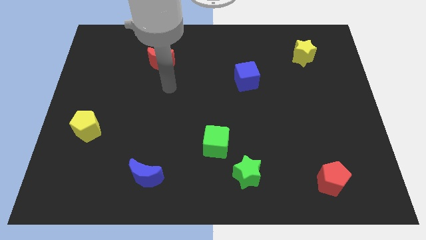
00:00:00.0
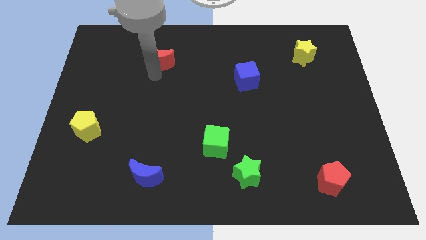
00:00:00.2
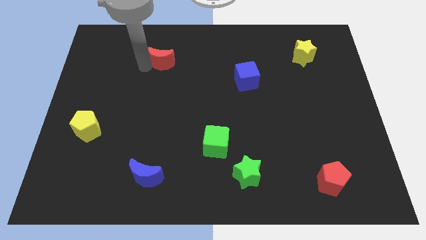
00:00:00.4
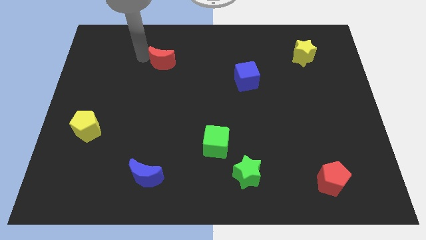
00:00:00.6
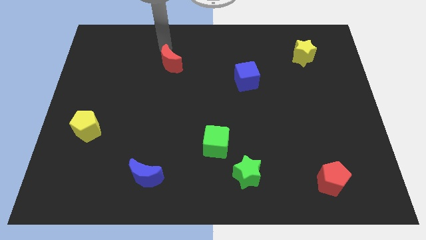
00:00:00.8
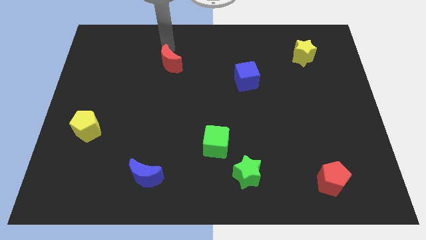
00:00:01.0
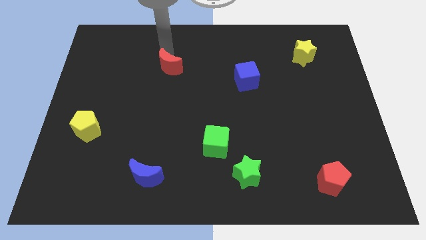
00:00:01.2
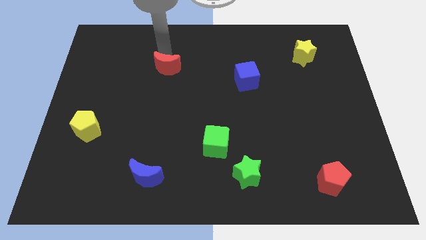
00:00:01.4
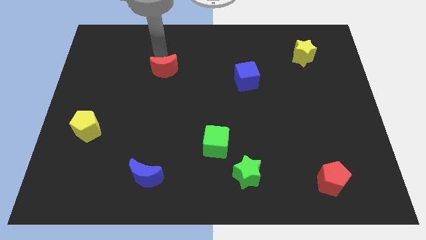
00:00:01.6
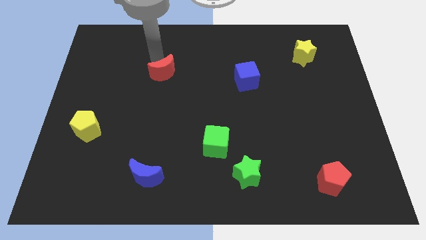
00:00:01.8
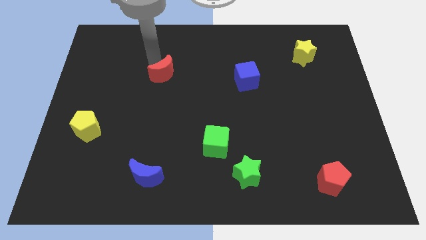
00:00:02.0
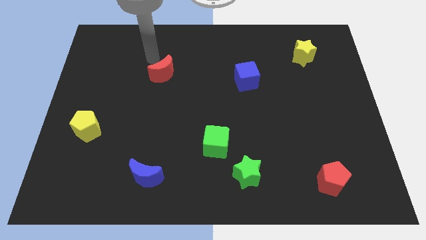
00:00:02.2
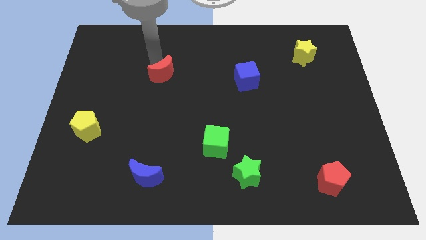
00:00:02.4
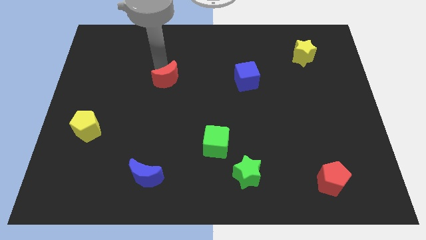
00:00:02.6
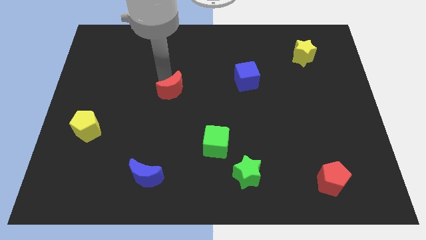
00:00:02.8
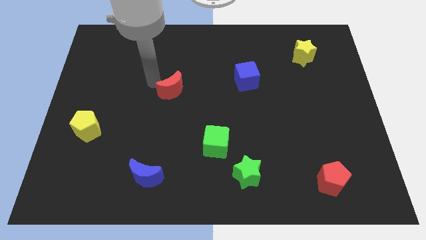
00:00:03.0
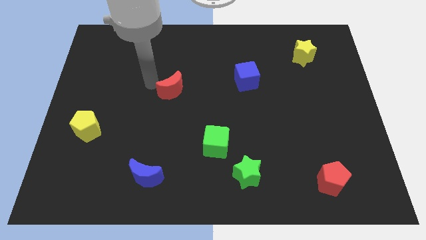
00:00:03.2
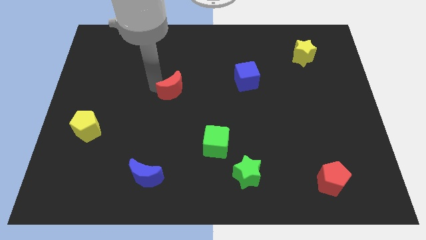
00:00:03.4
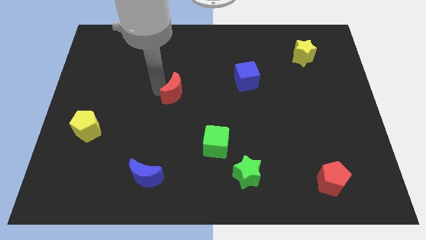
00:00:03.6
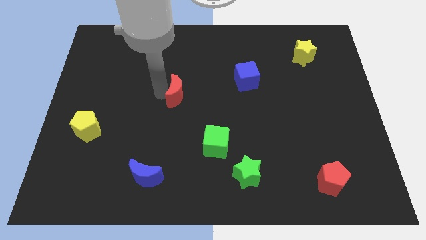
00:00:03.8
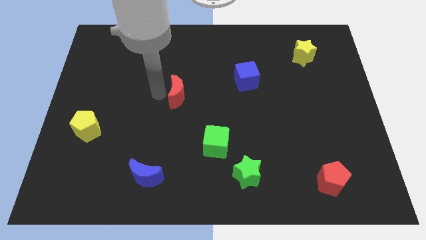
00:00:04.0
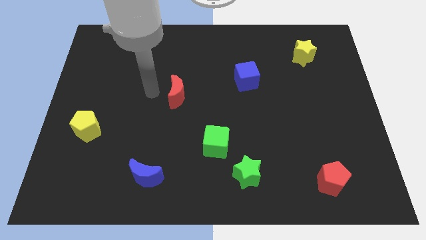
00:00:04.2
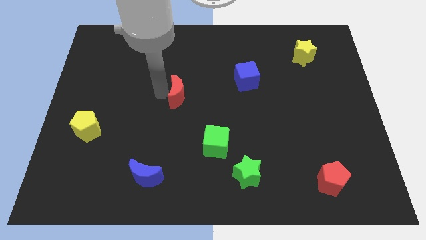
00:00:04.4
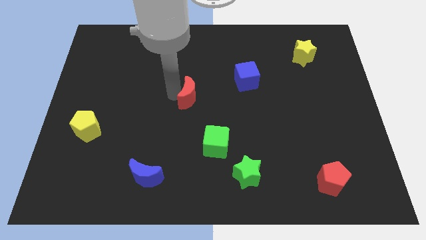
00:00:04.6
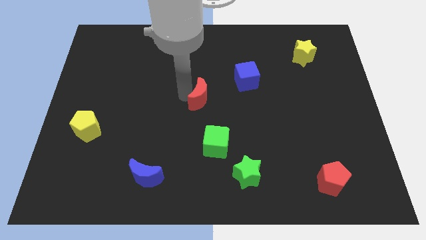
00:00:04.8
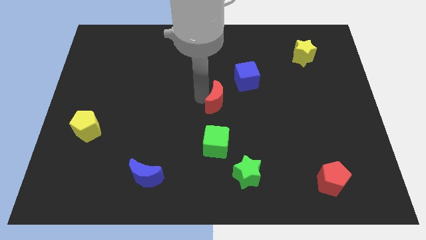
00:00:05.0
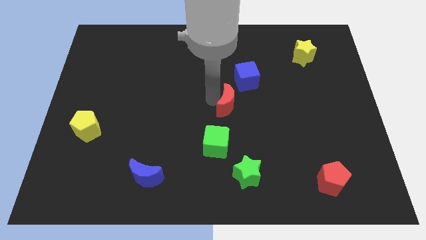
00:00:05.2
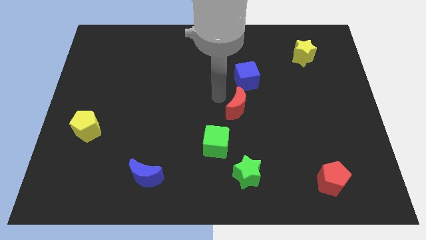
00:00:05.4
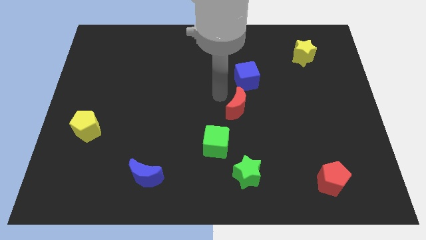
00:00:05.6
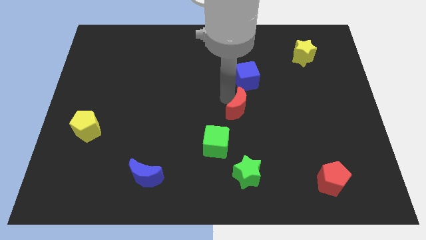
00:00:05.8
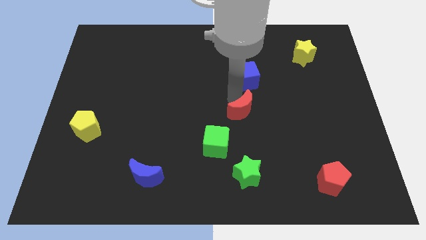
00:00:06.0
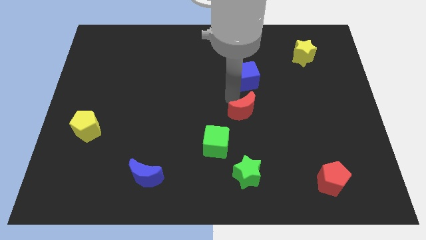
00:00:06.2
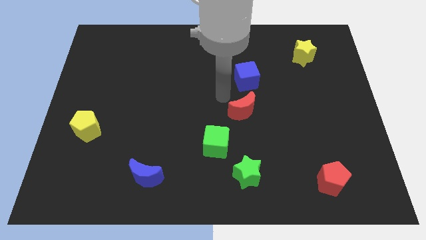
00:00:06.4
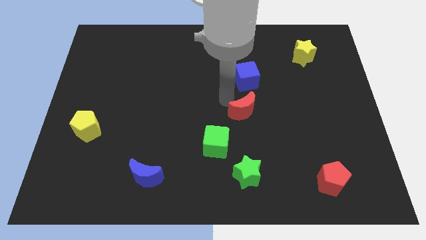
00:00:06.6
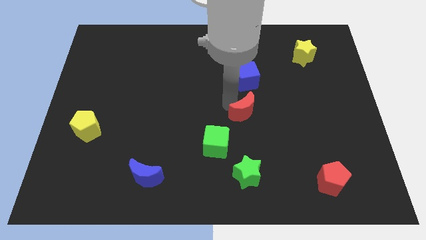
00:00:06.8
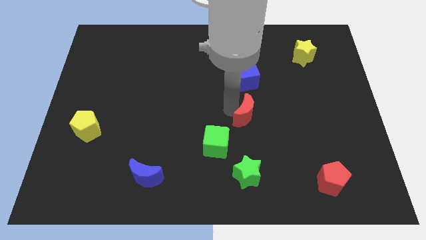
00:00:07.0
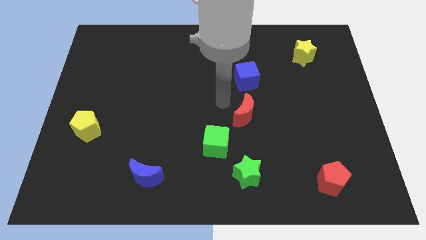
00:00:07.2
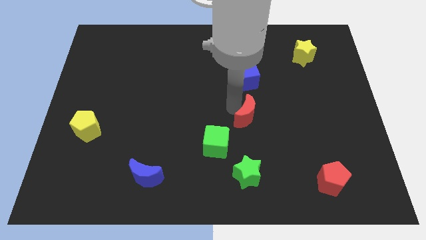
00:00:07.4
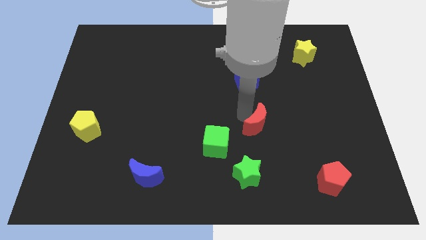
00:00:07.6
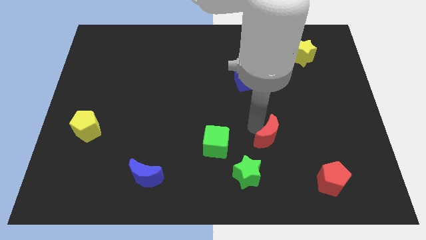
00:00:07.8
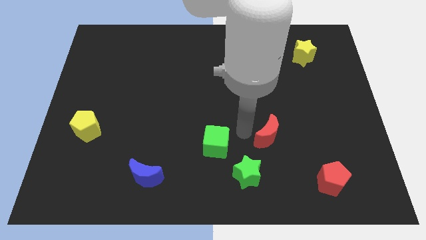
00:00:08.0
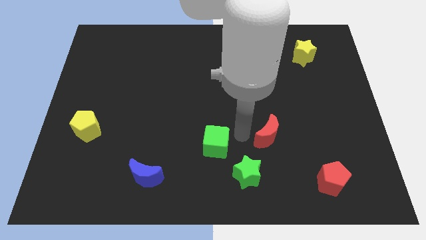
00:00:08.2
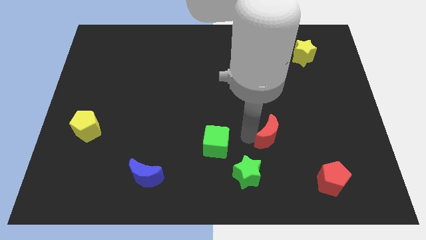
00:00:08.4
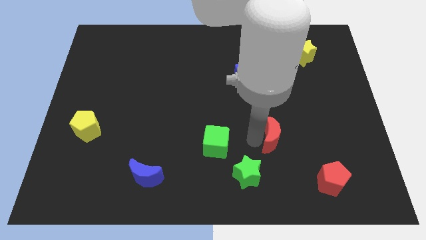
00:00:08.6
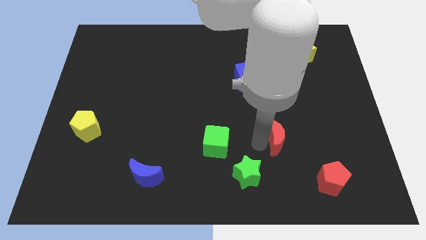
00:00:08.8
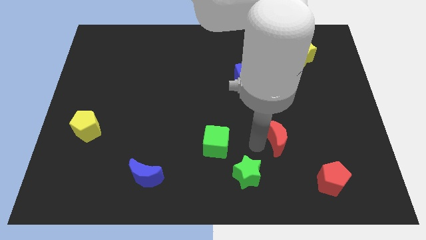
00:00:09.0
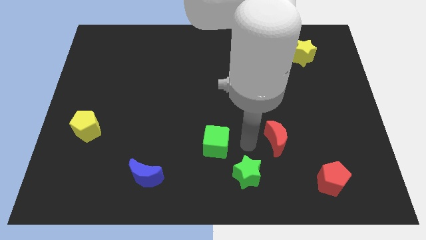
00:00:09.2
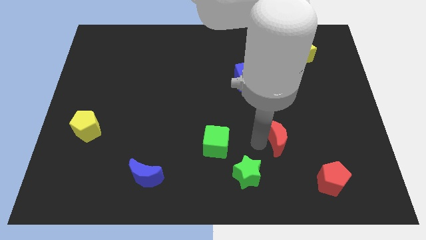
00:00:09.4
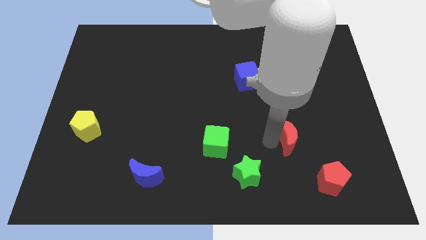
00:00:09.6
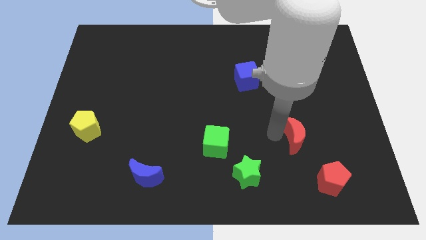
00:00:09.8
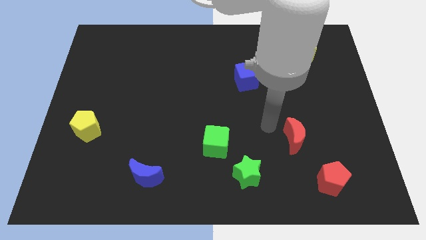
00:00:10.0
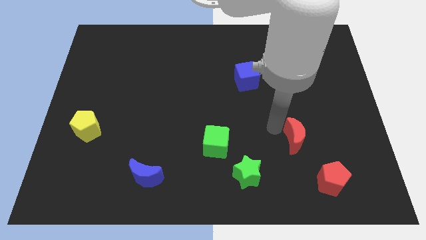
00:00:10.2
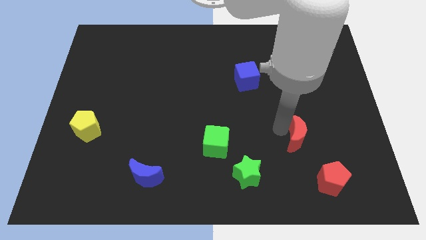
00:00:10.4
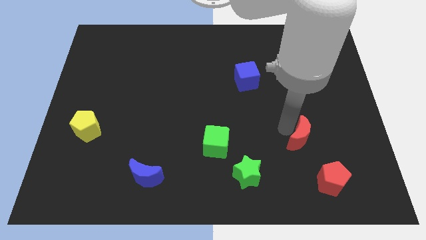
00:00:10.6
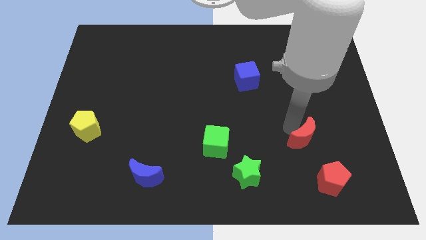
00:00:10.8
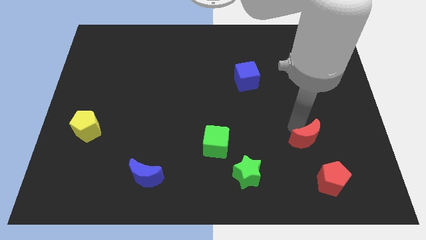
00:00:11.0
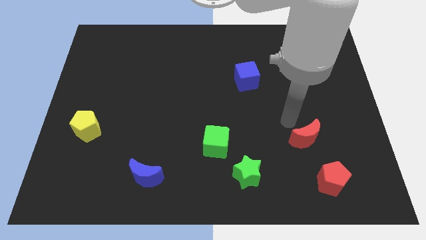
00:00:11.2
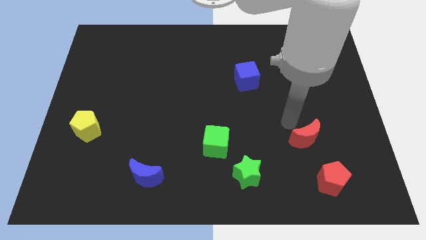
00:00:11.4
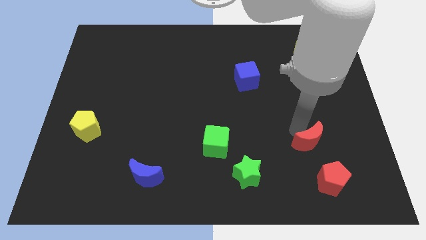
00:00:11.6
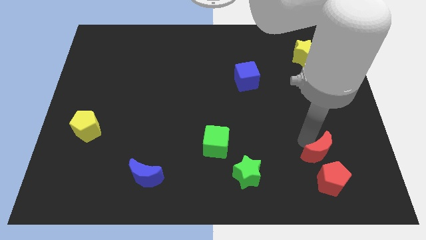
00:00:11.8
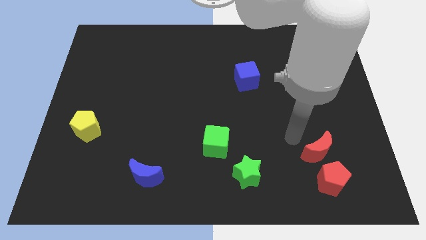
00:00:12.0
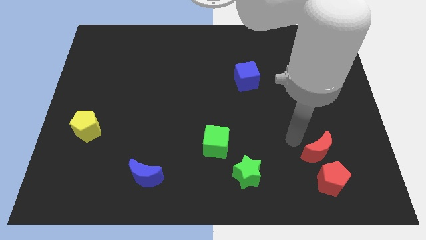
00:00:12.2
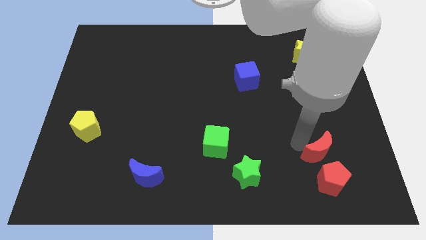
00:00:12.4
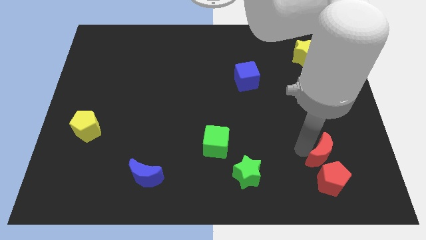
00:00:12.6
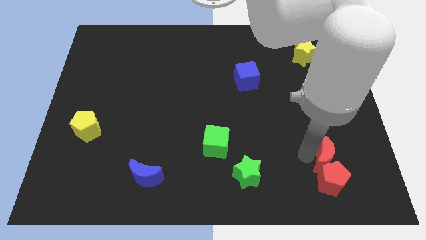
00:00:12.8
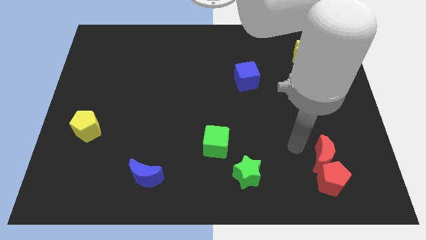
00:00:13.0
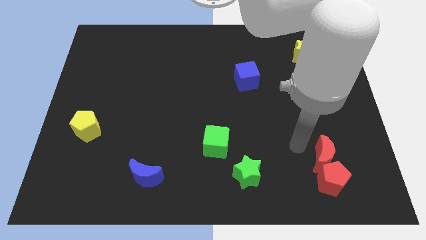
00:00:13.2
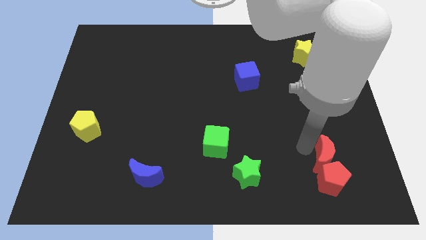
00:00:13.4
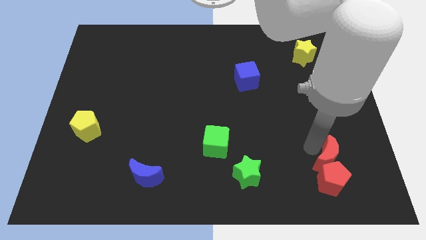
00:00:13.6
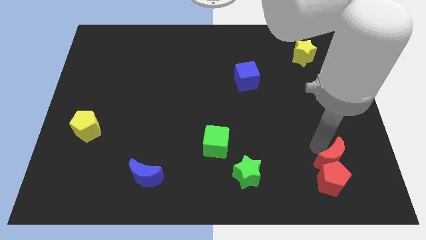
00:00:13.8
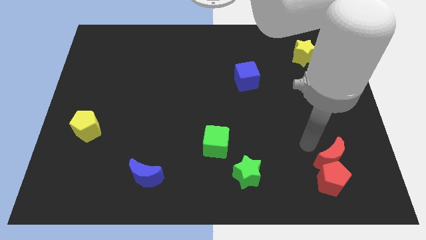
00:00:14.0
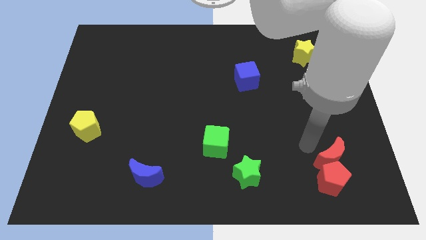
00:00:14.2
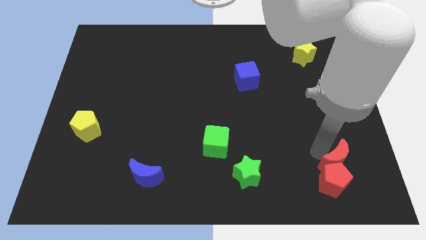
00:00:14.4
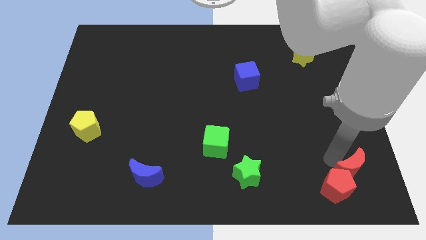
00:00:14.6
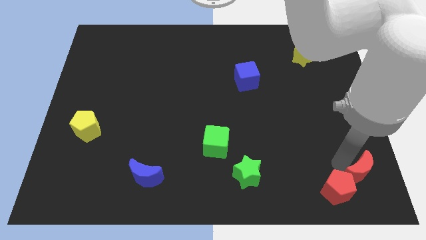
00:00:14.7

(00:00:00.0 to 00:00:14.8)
push the red moon to the bottom right of the board

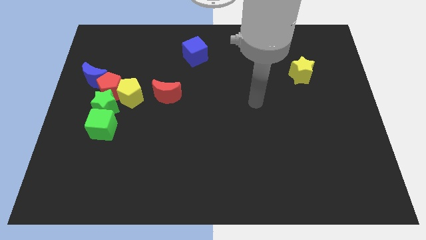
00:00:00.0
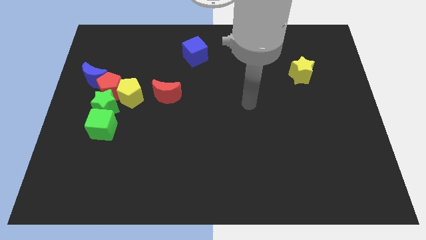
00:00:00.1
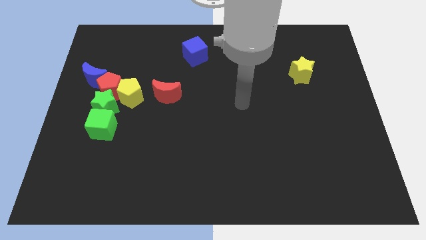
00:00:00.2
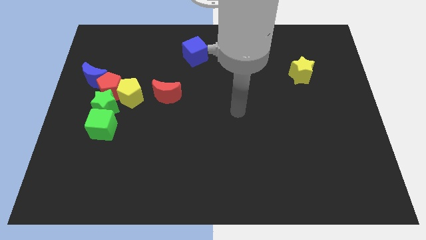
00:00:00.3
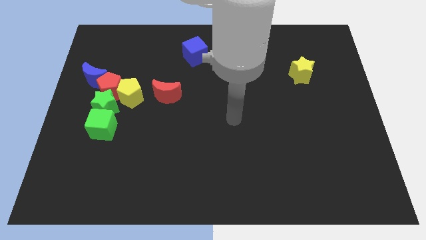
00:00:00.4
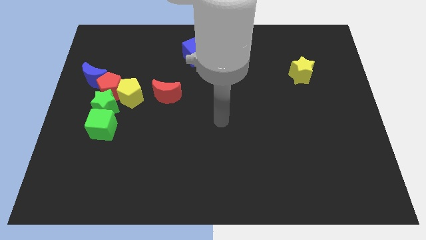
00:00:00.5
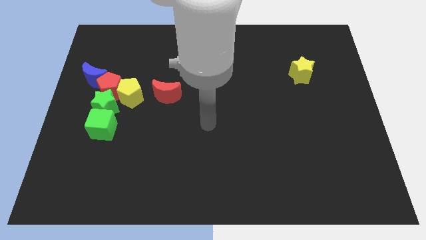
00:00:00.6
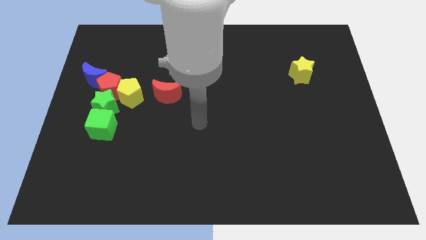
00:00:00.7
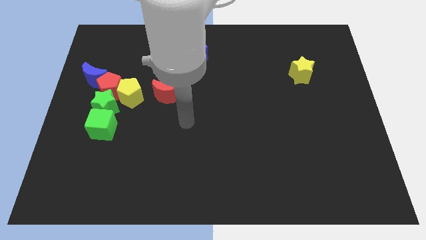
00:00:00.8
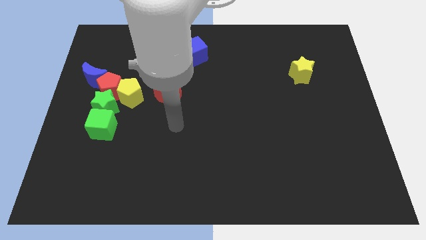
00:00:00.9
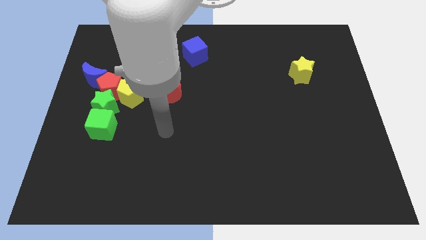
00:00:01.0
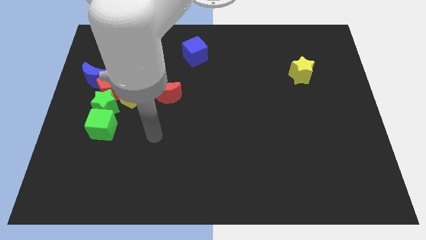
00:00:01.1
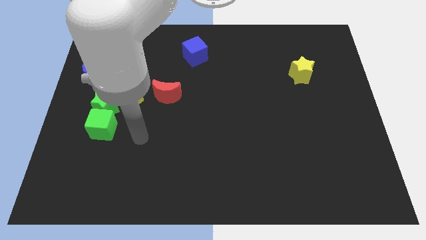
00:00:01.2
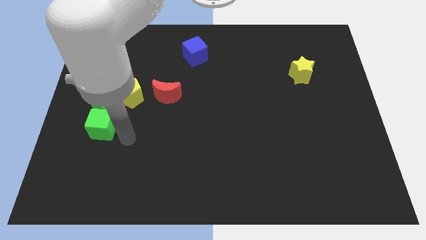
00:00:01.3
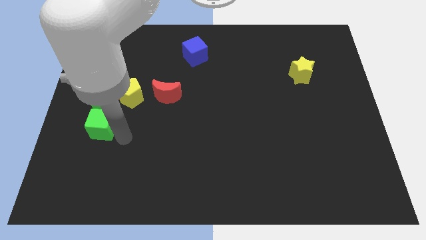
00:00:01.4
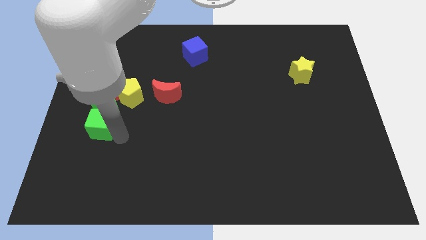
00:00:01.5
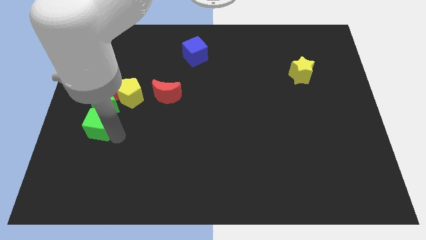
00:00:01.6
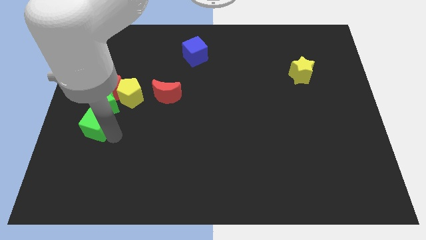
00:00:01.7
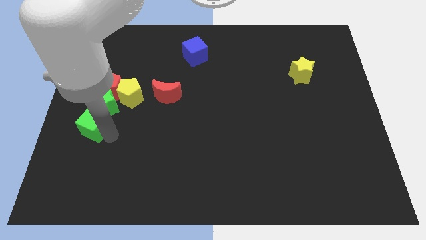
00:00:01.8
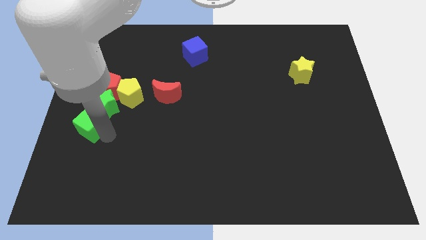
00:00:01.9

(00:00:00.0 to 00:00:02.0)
slide the green cube to the center left
